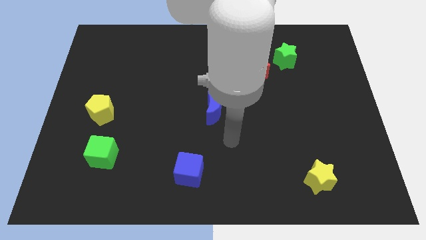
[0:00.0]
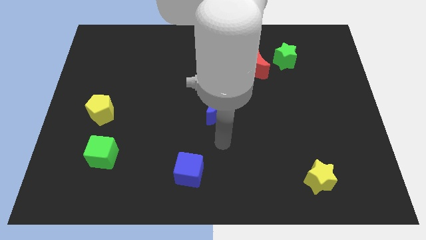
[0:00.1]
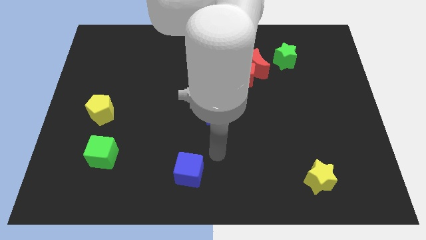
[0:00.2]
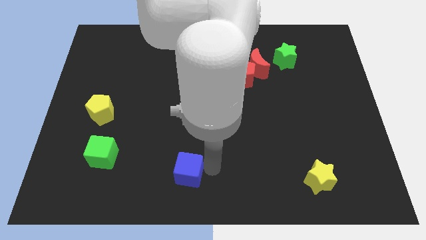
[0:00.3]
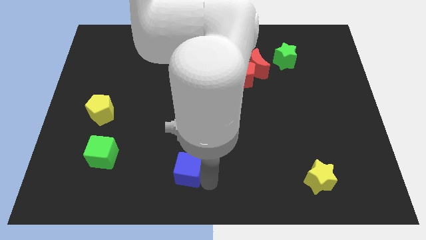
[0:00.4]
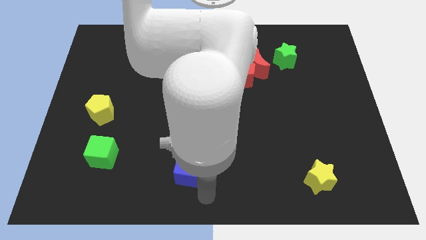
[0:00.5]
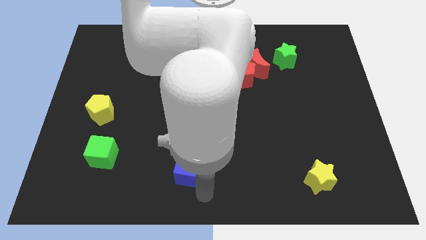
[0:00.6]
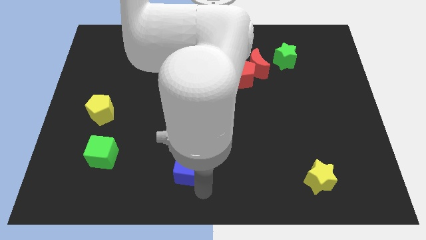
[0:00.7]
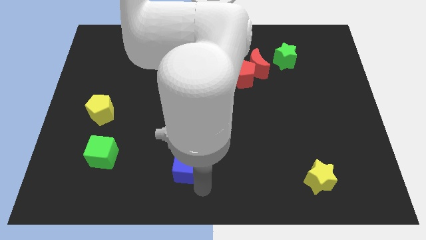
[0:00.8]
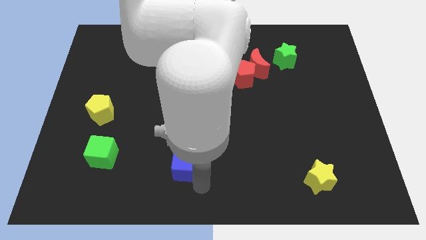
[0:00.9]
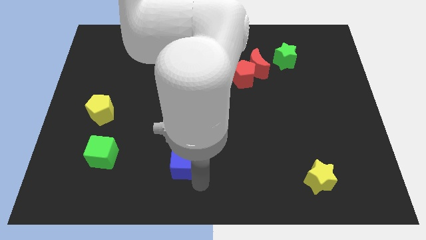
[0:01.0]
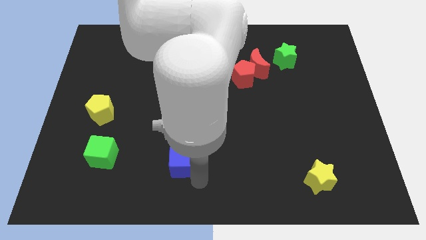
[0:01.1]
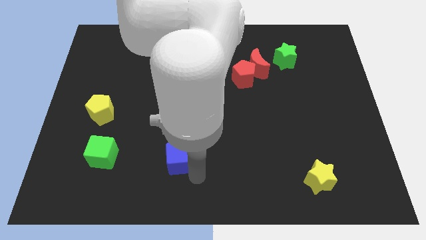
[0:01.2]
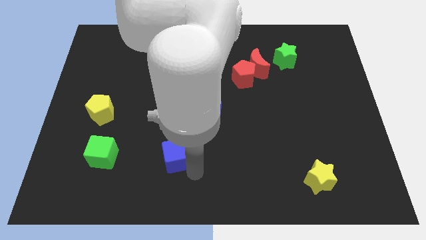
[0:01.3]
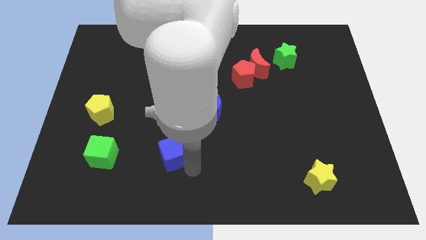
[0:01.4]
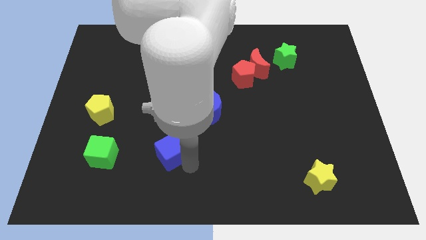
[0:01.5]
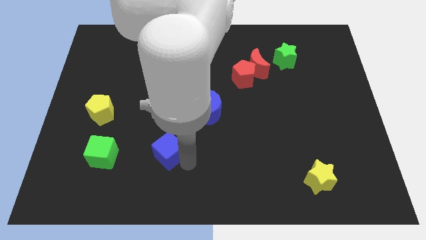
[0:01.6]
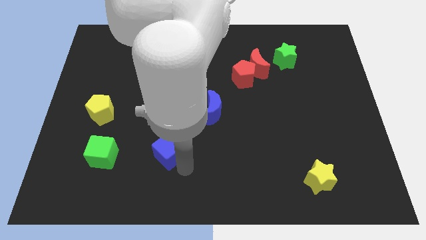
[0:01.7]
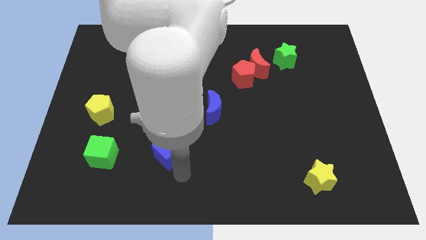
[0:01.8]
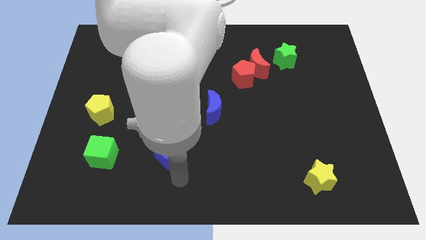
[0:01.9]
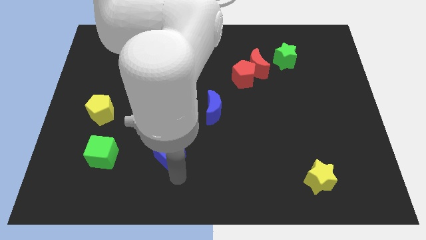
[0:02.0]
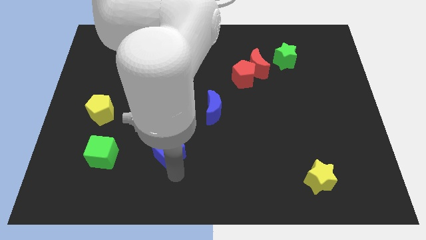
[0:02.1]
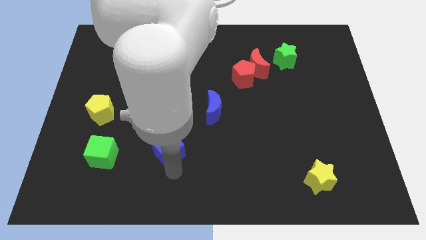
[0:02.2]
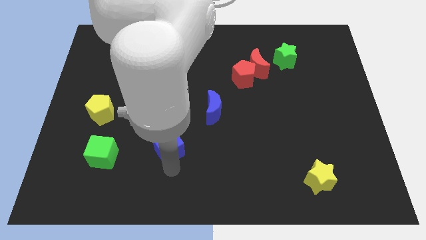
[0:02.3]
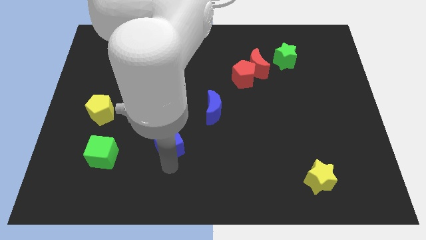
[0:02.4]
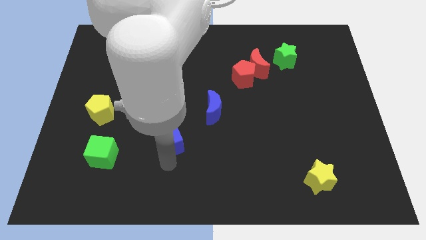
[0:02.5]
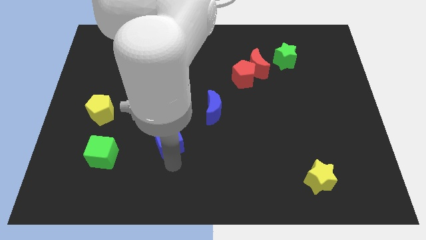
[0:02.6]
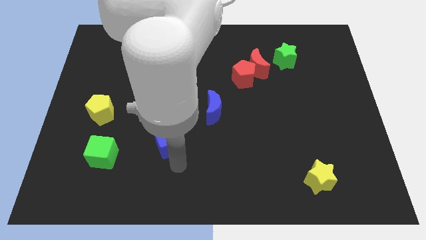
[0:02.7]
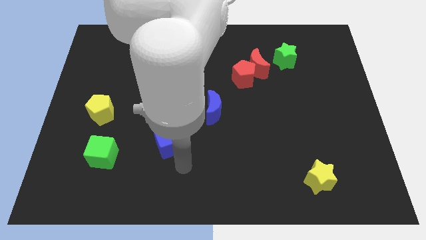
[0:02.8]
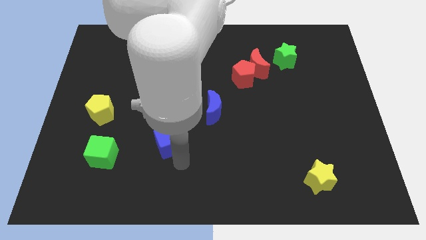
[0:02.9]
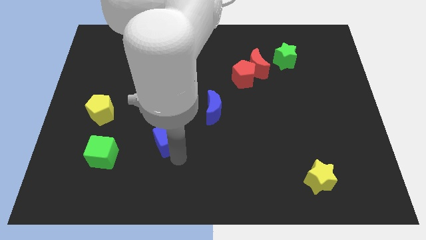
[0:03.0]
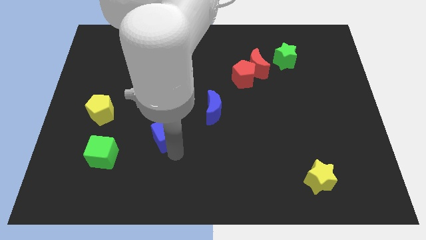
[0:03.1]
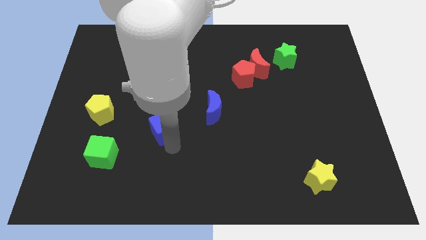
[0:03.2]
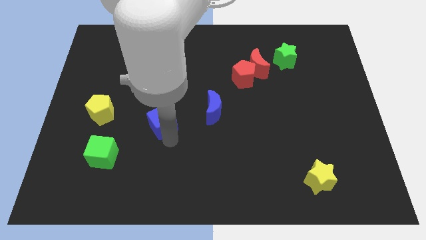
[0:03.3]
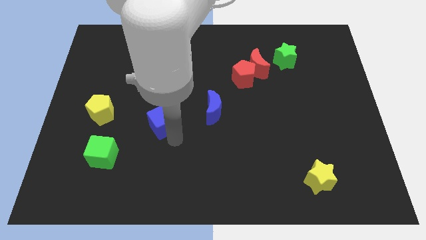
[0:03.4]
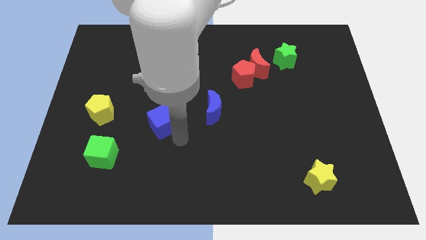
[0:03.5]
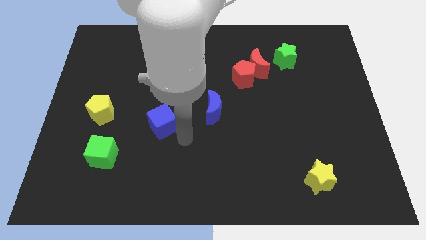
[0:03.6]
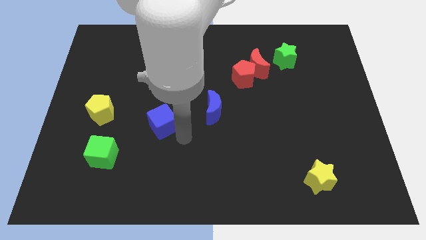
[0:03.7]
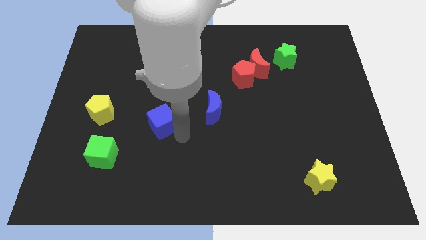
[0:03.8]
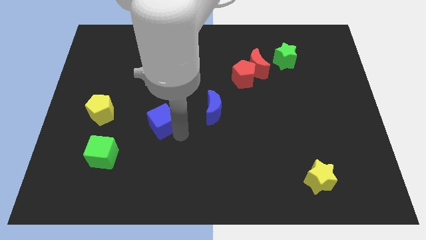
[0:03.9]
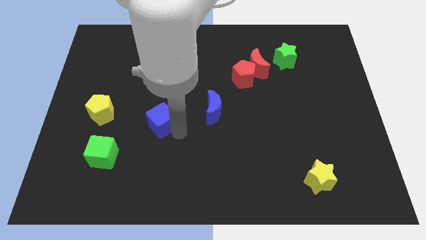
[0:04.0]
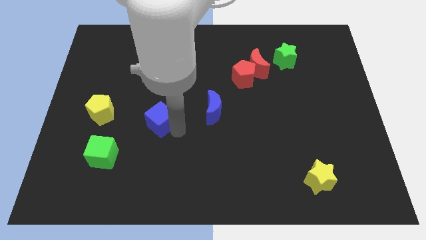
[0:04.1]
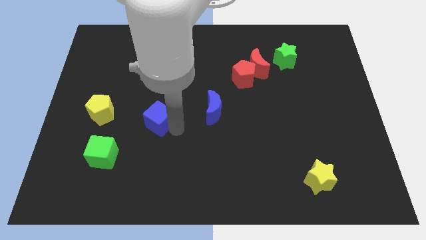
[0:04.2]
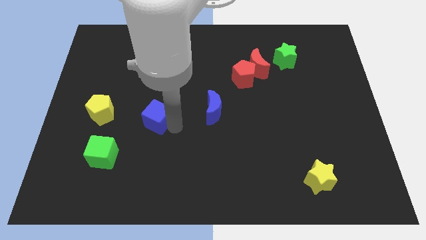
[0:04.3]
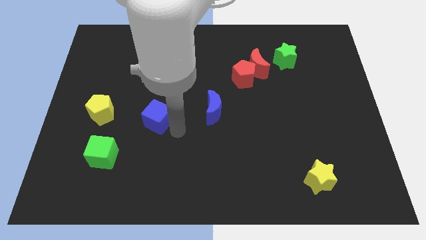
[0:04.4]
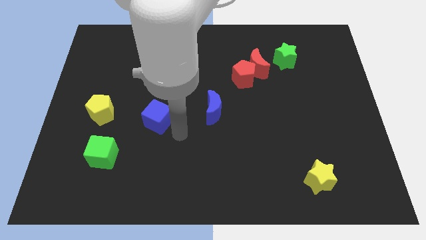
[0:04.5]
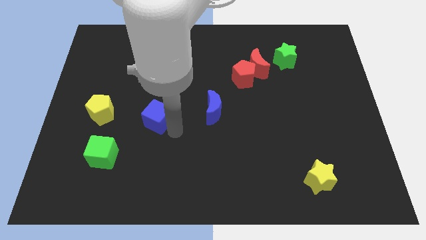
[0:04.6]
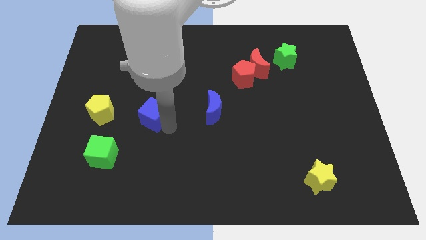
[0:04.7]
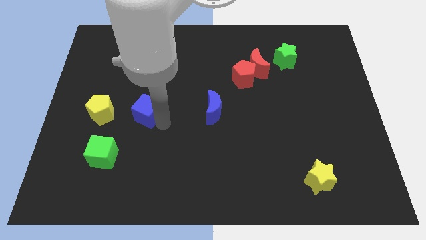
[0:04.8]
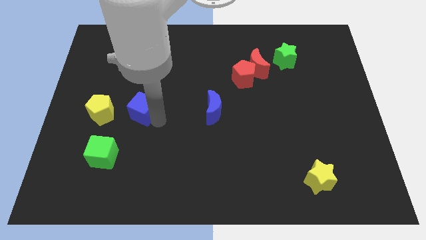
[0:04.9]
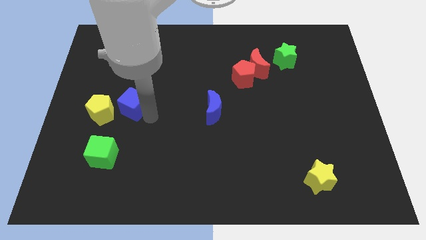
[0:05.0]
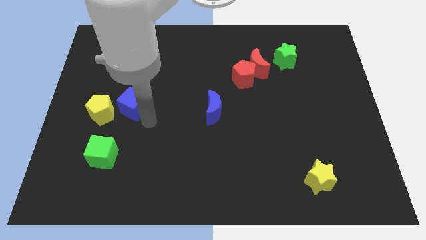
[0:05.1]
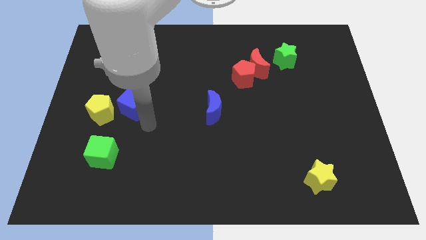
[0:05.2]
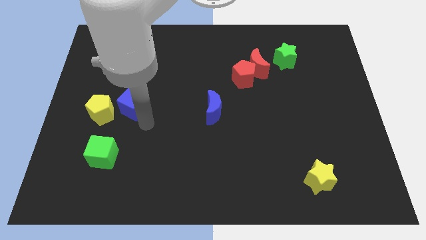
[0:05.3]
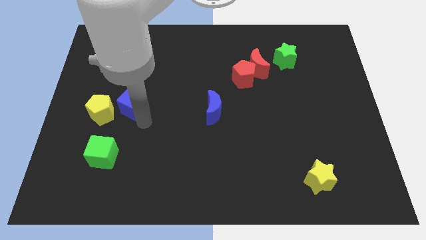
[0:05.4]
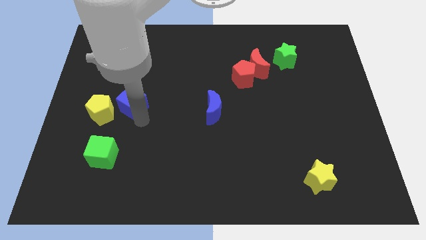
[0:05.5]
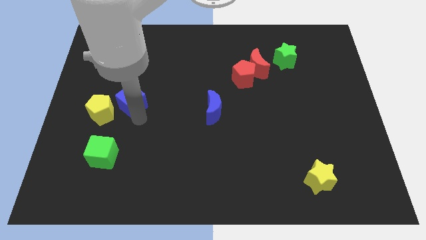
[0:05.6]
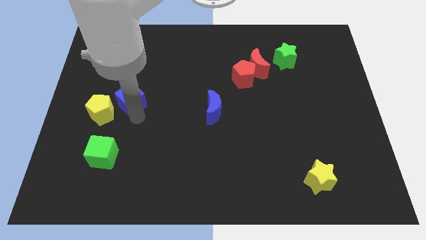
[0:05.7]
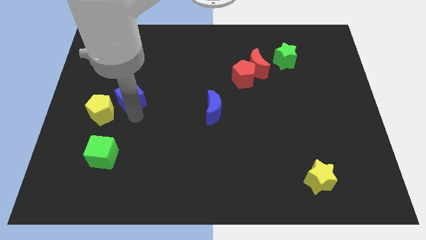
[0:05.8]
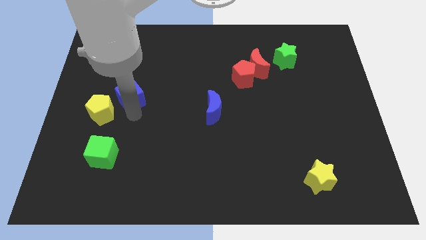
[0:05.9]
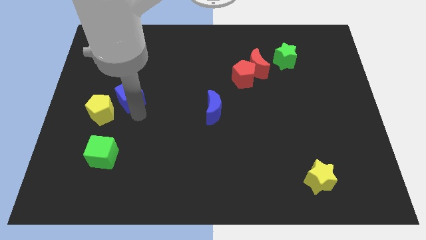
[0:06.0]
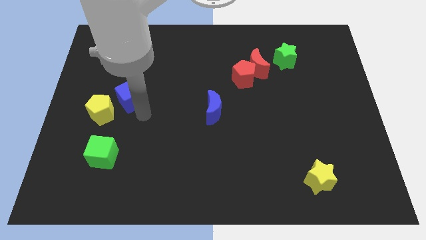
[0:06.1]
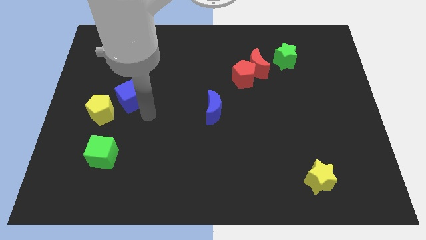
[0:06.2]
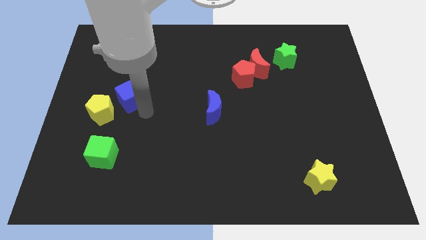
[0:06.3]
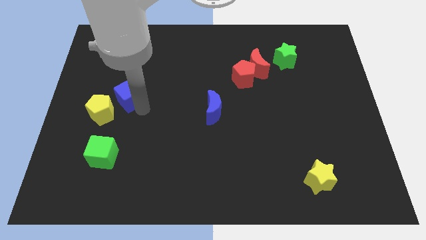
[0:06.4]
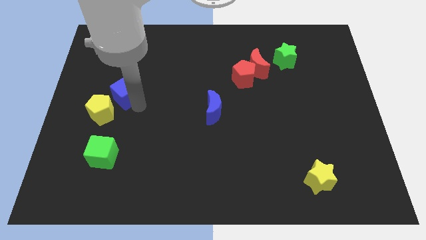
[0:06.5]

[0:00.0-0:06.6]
slide the blue cube above the yellow pentagon
